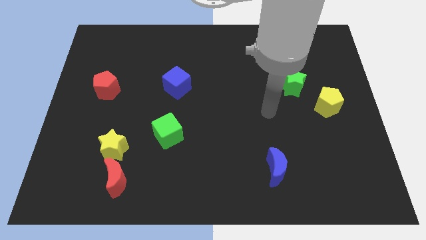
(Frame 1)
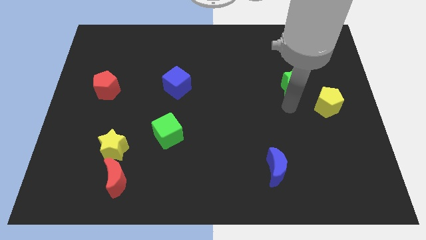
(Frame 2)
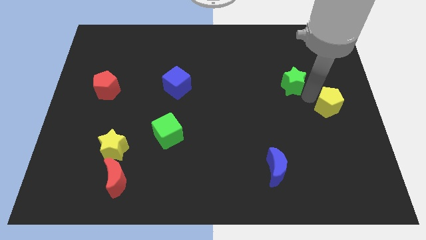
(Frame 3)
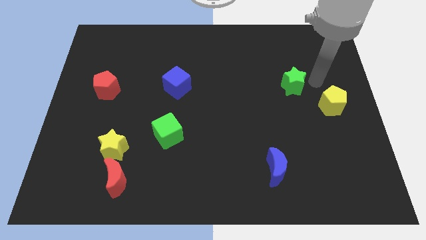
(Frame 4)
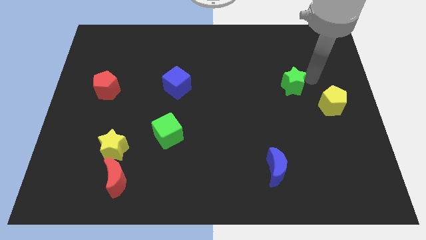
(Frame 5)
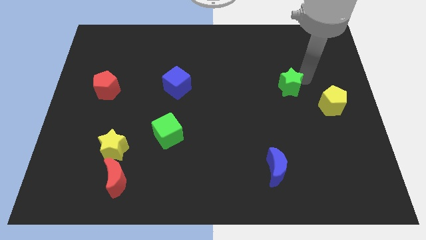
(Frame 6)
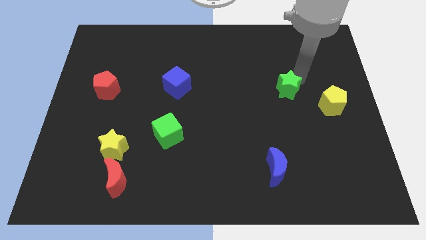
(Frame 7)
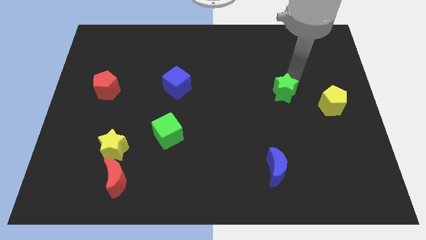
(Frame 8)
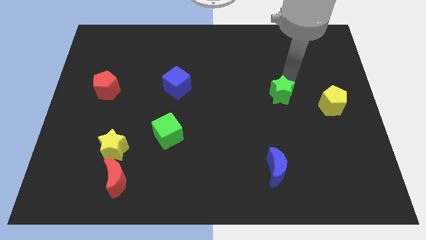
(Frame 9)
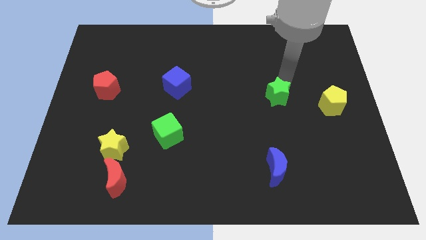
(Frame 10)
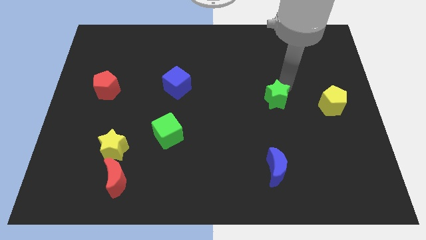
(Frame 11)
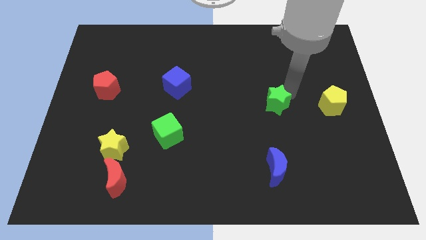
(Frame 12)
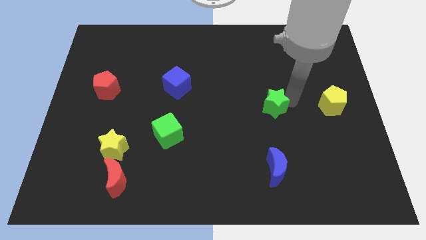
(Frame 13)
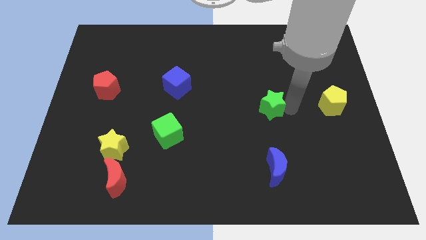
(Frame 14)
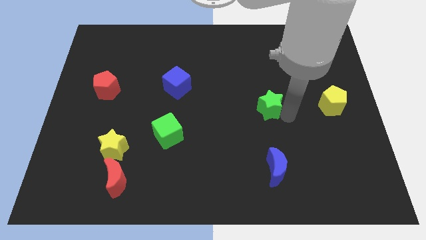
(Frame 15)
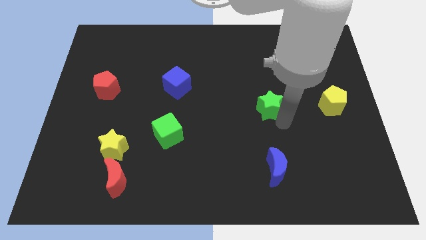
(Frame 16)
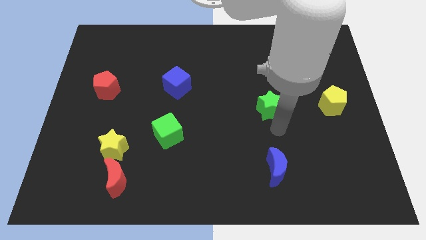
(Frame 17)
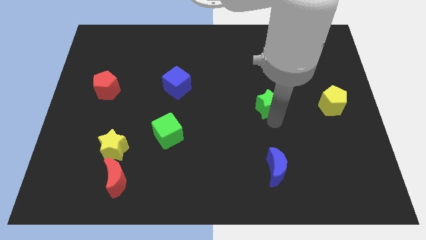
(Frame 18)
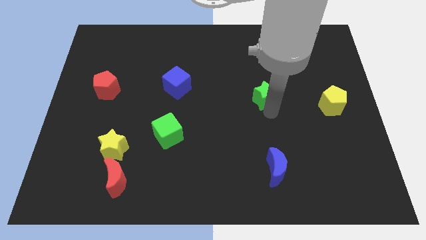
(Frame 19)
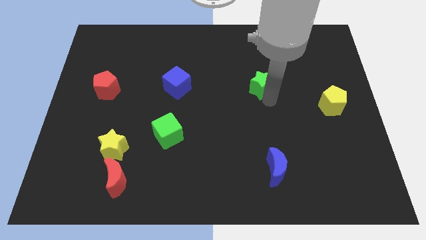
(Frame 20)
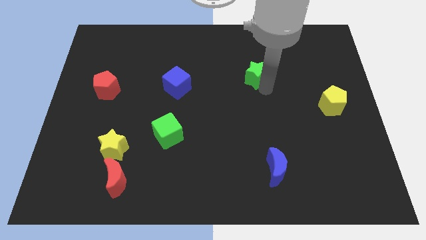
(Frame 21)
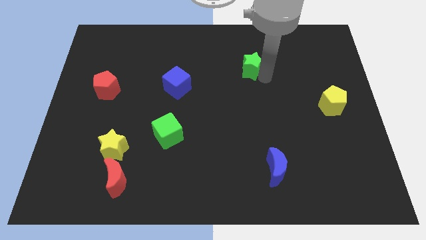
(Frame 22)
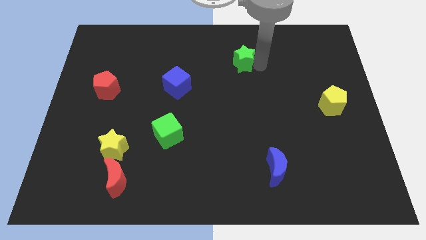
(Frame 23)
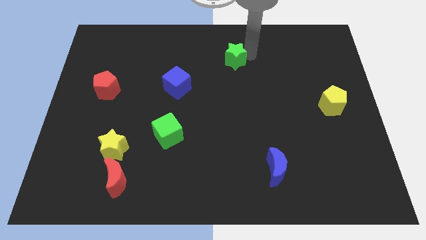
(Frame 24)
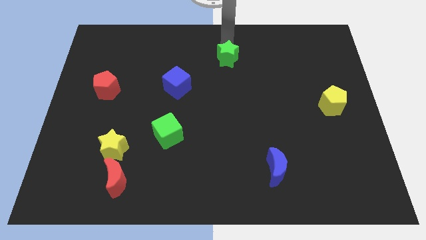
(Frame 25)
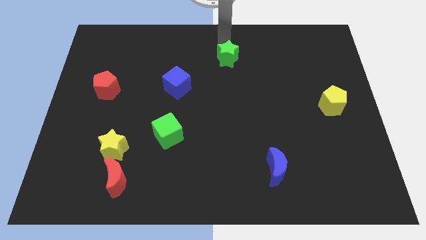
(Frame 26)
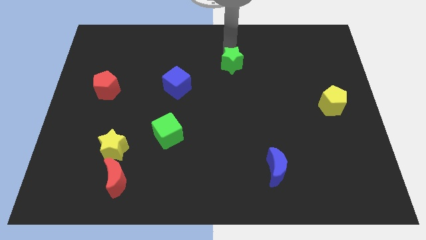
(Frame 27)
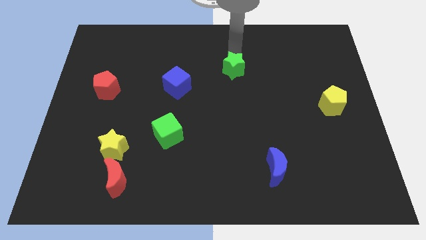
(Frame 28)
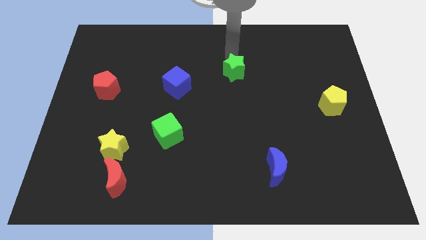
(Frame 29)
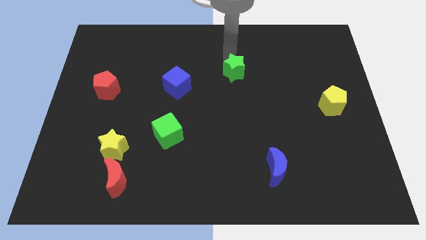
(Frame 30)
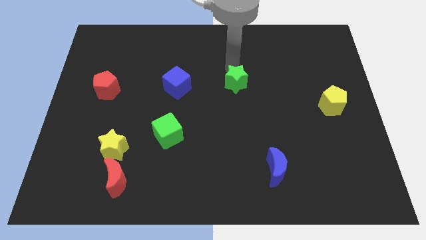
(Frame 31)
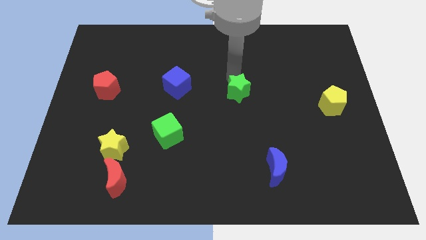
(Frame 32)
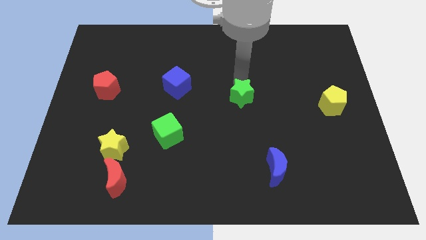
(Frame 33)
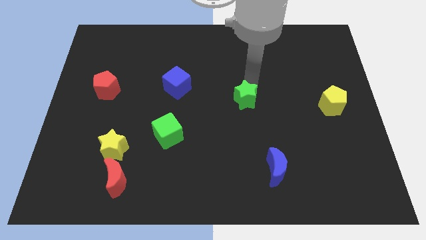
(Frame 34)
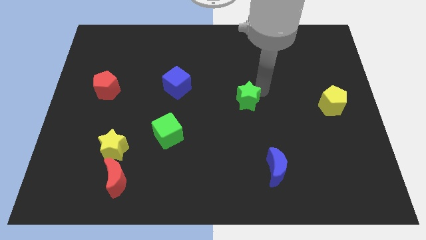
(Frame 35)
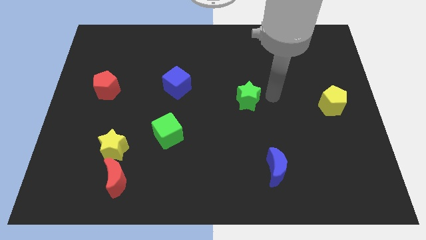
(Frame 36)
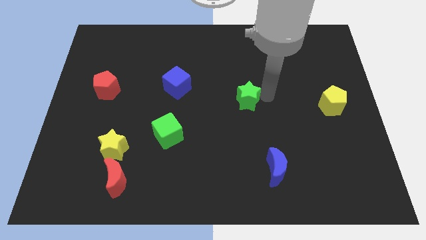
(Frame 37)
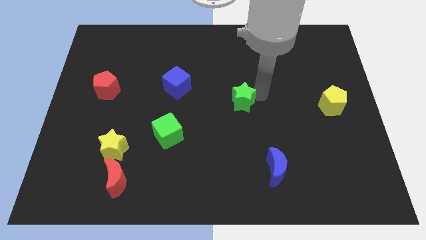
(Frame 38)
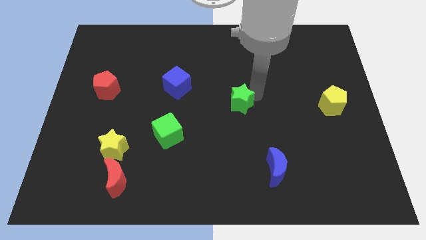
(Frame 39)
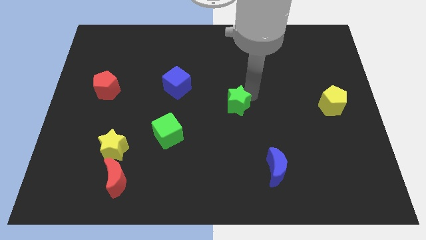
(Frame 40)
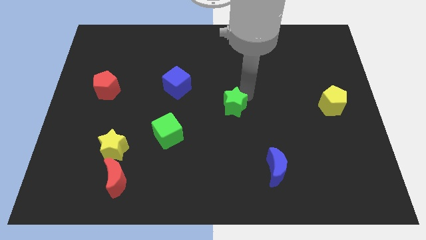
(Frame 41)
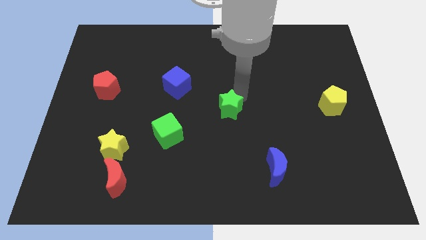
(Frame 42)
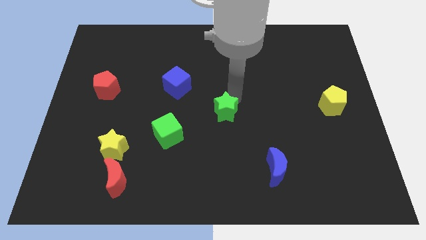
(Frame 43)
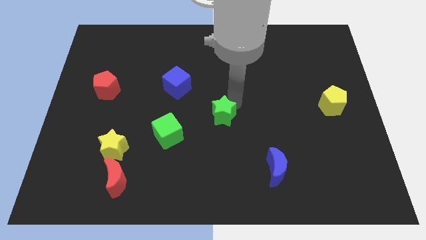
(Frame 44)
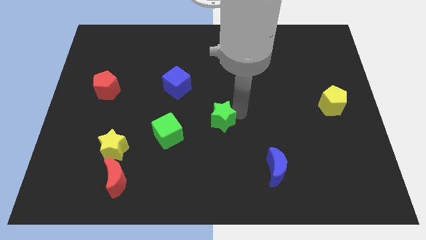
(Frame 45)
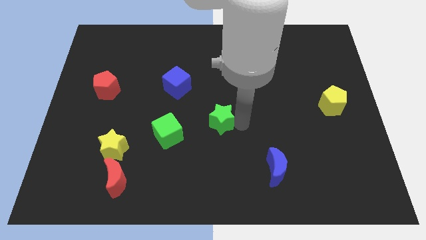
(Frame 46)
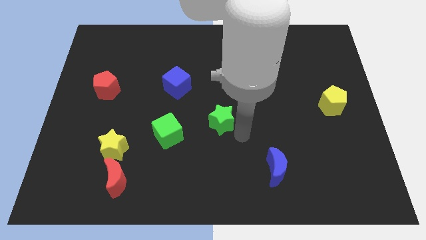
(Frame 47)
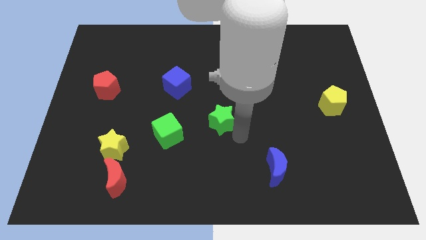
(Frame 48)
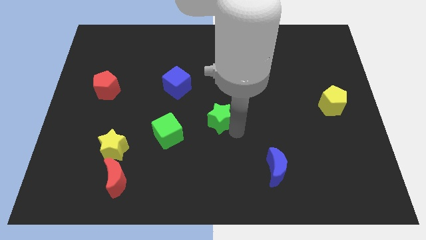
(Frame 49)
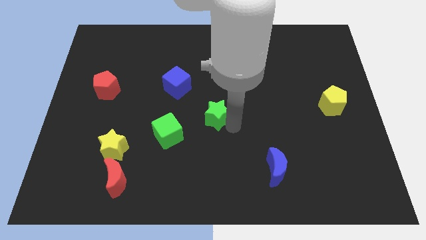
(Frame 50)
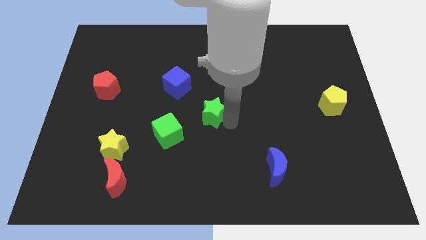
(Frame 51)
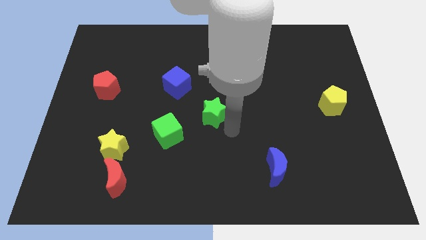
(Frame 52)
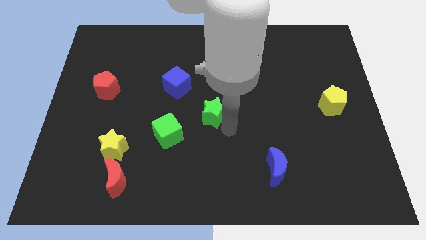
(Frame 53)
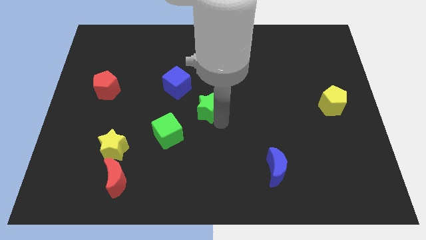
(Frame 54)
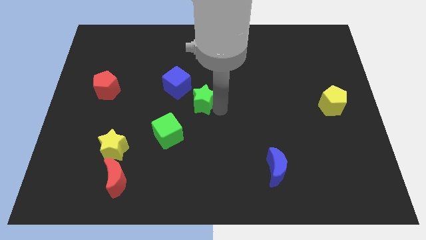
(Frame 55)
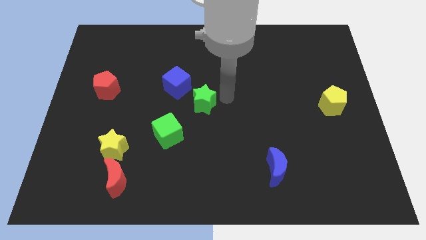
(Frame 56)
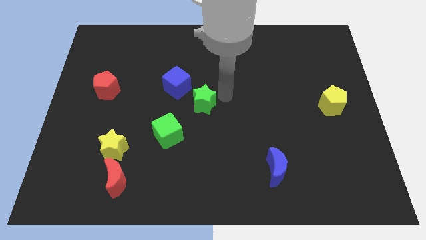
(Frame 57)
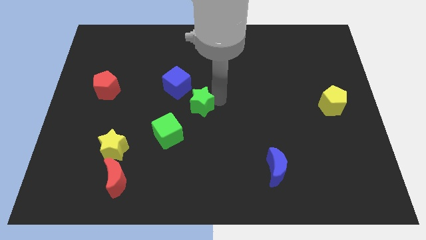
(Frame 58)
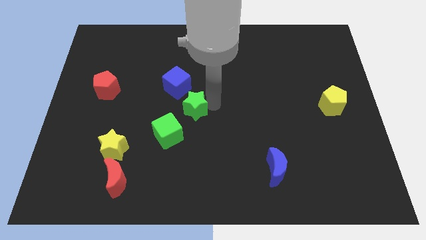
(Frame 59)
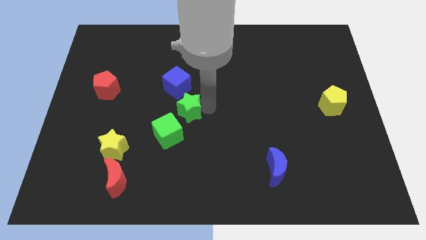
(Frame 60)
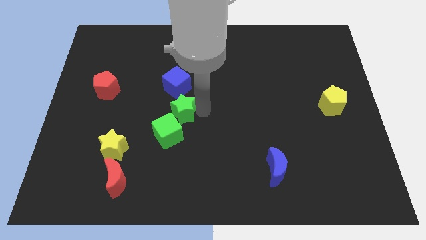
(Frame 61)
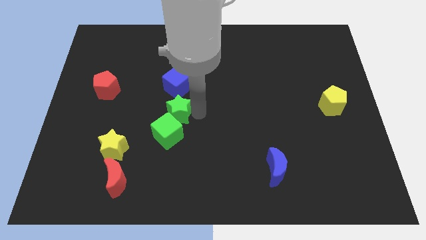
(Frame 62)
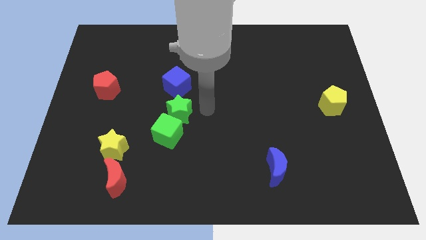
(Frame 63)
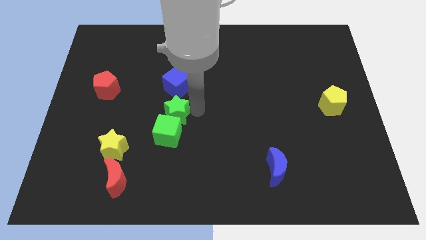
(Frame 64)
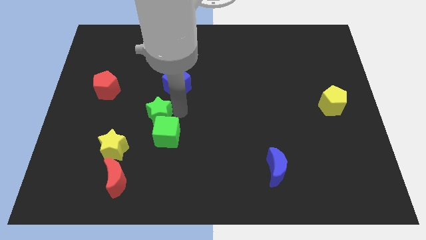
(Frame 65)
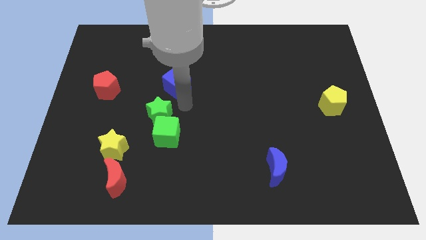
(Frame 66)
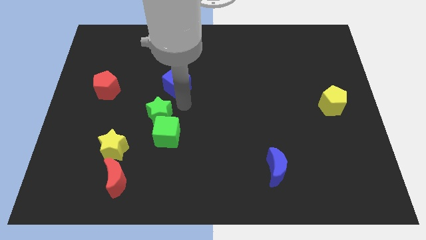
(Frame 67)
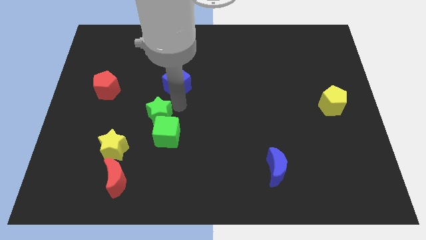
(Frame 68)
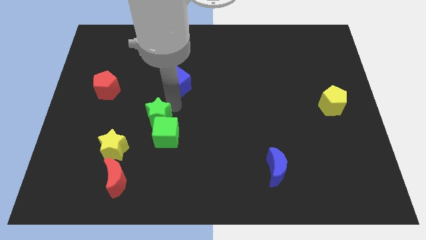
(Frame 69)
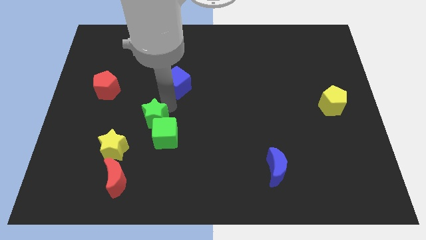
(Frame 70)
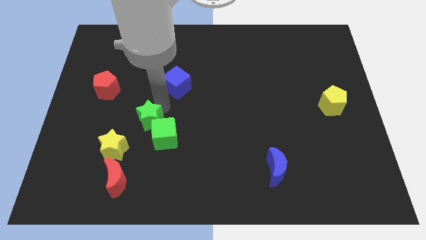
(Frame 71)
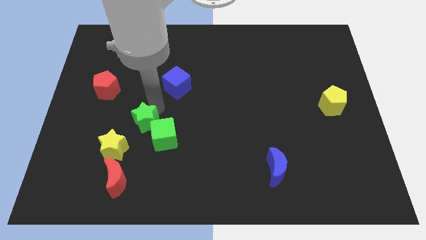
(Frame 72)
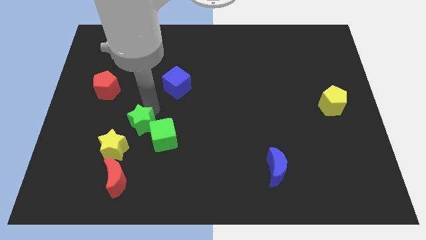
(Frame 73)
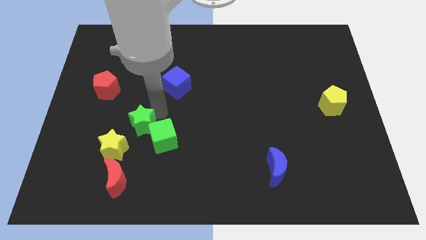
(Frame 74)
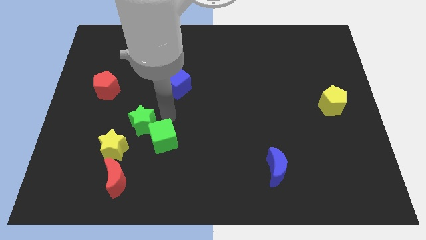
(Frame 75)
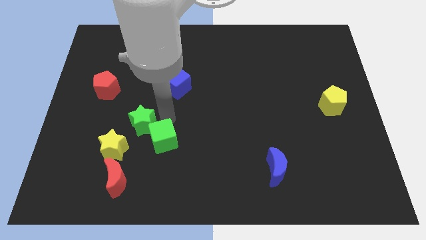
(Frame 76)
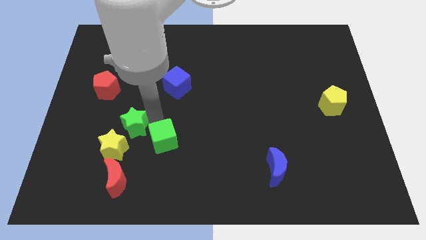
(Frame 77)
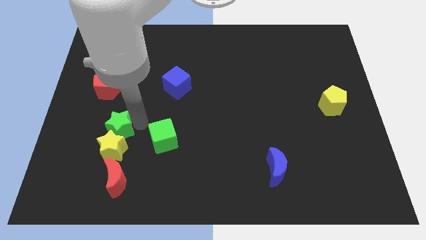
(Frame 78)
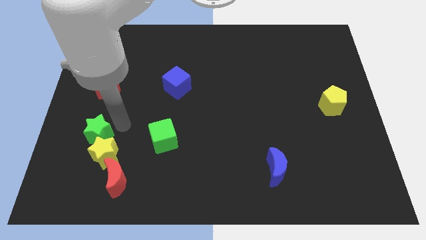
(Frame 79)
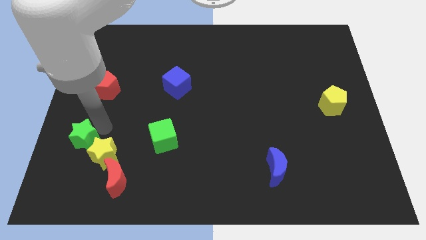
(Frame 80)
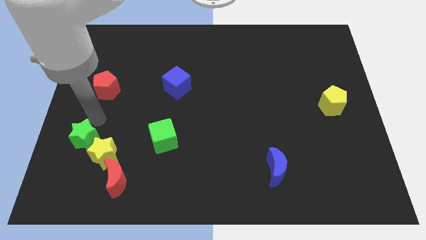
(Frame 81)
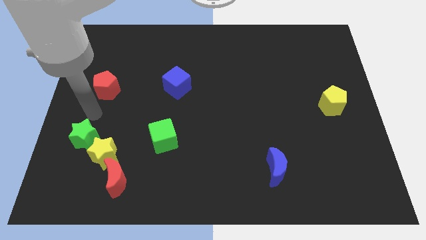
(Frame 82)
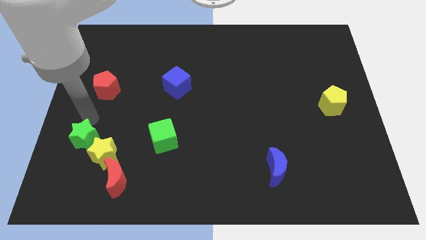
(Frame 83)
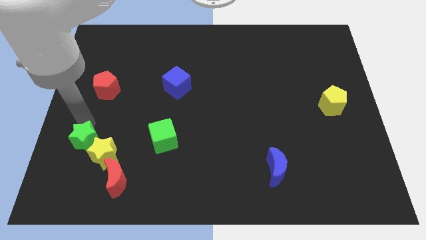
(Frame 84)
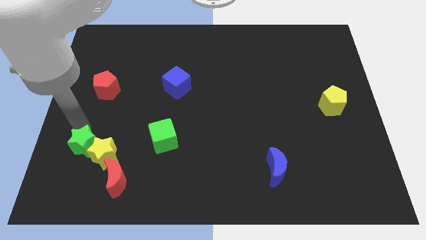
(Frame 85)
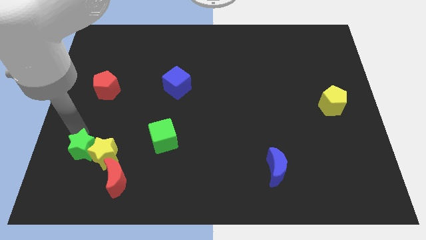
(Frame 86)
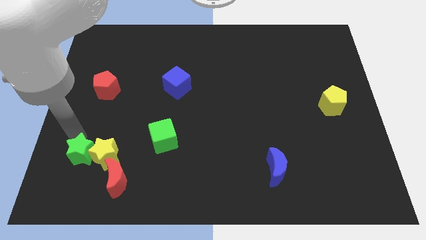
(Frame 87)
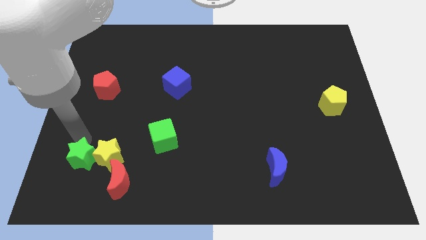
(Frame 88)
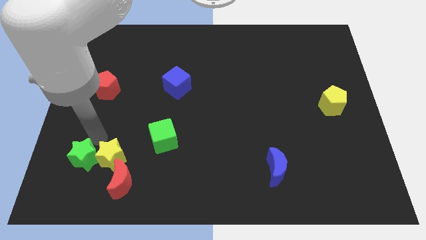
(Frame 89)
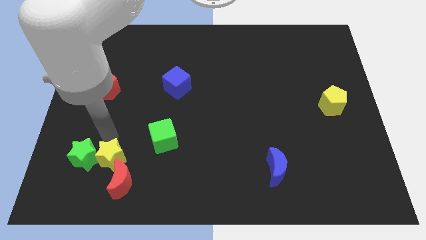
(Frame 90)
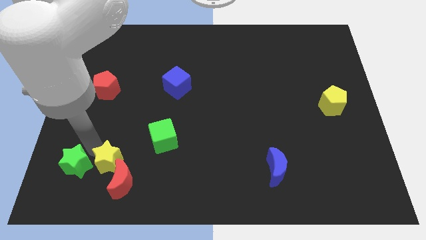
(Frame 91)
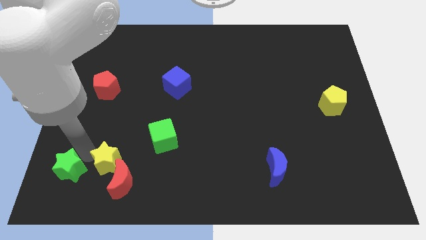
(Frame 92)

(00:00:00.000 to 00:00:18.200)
put the green star to the bottom left of the board
